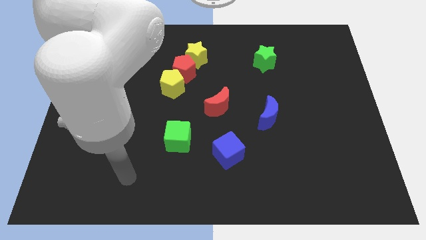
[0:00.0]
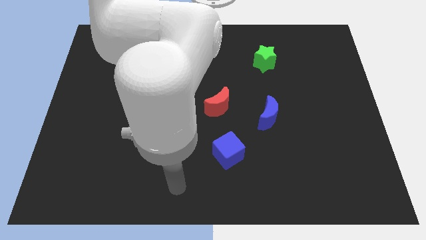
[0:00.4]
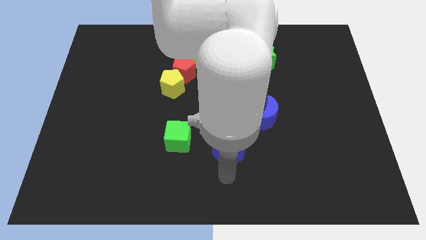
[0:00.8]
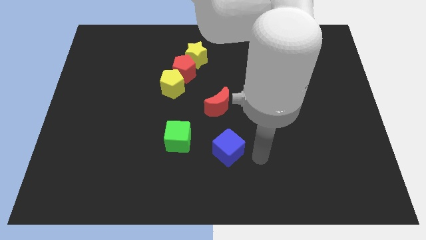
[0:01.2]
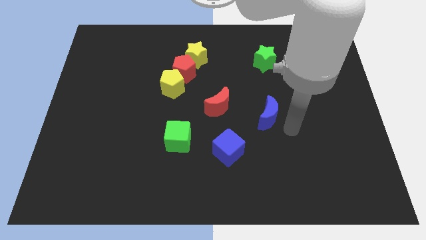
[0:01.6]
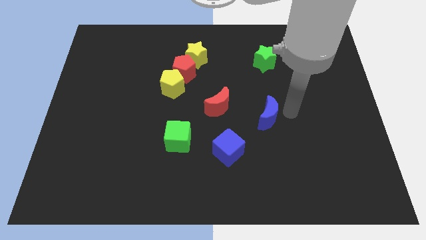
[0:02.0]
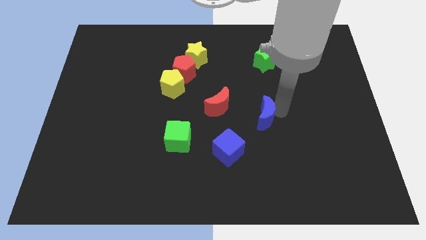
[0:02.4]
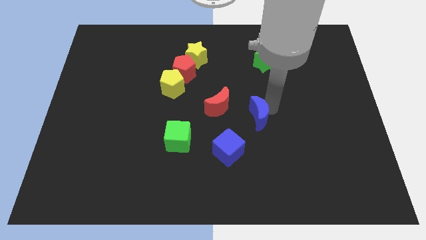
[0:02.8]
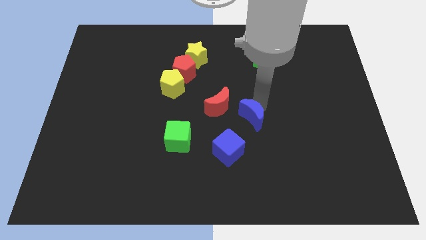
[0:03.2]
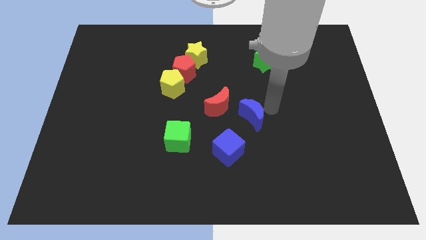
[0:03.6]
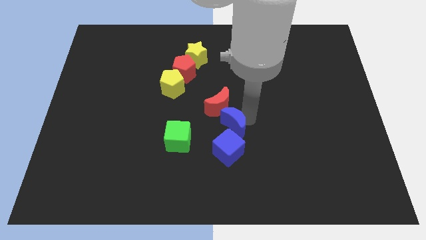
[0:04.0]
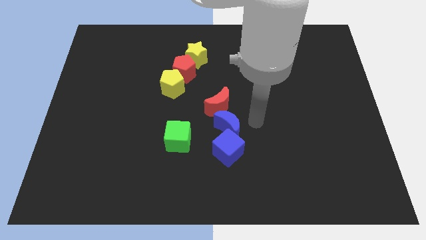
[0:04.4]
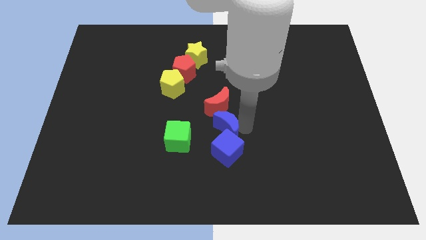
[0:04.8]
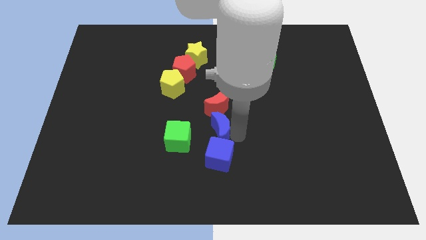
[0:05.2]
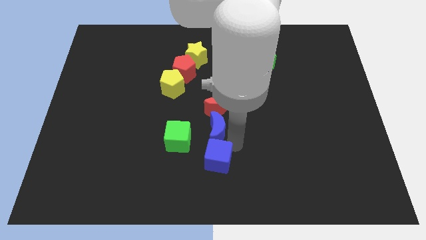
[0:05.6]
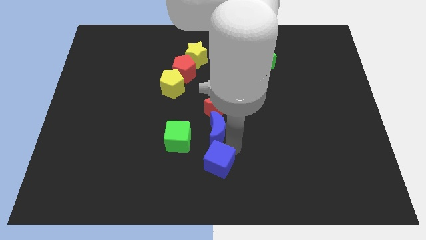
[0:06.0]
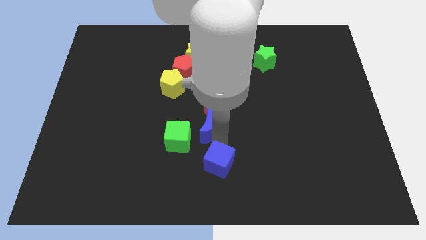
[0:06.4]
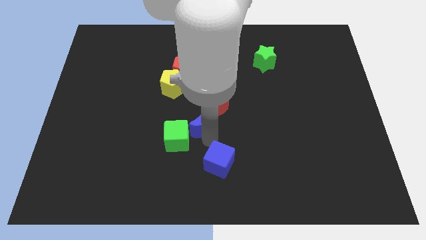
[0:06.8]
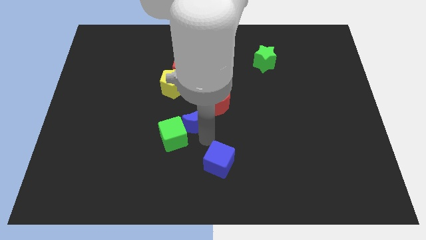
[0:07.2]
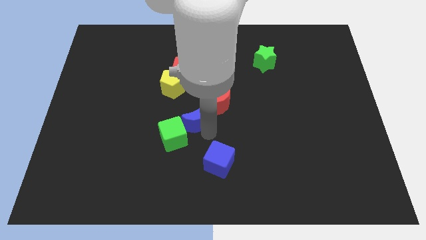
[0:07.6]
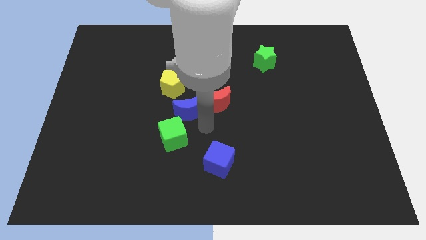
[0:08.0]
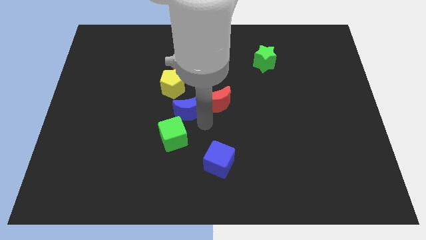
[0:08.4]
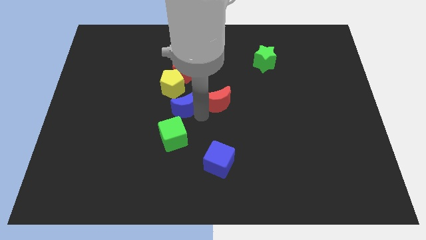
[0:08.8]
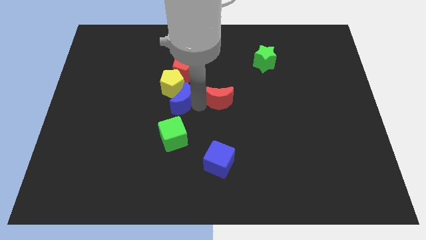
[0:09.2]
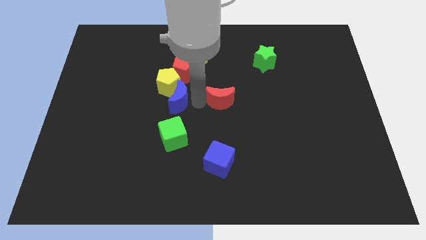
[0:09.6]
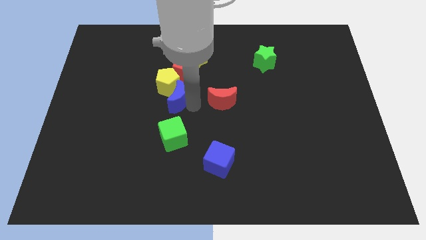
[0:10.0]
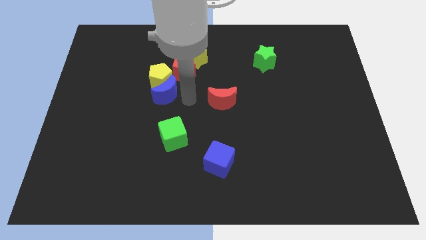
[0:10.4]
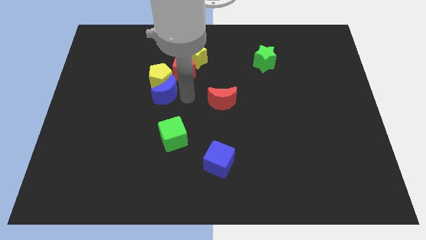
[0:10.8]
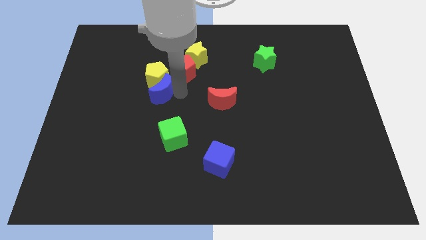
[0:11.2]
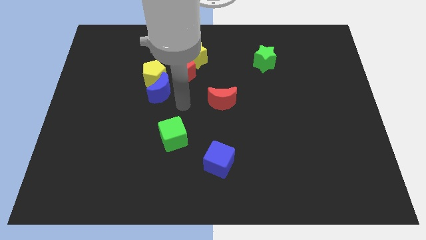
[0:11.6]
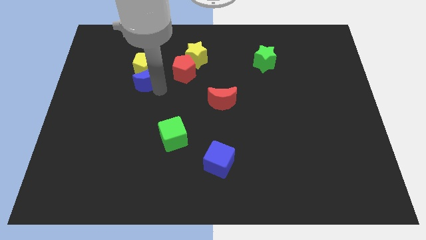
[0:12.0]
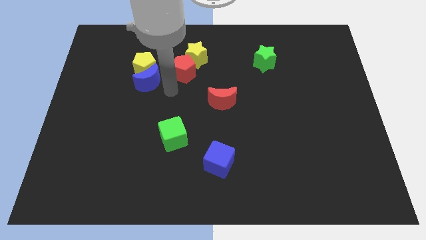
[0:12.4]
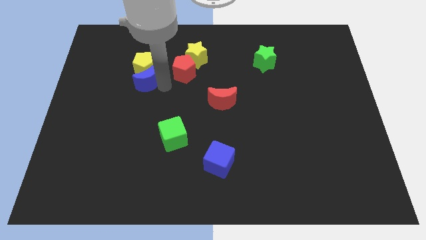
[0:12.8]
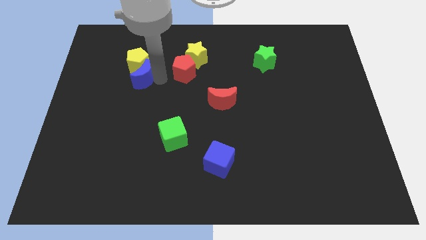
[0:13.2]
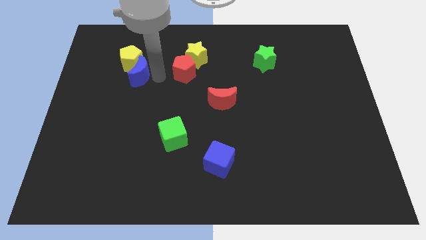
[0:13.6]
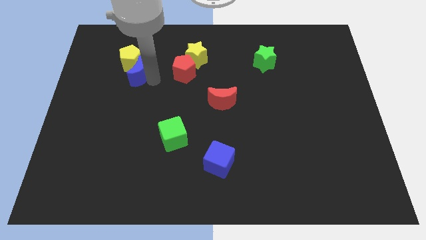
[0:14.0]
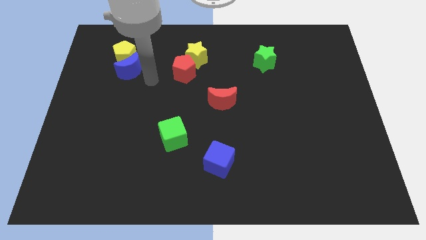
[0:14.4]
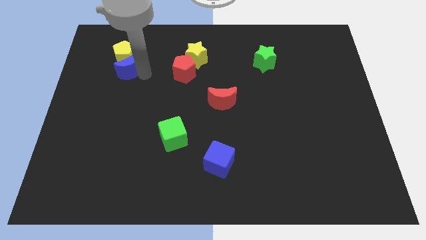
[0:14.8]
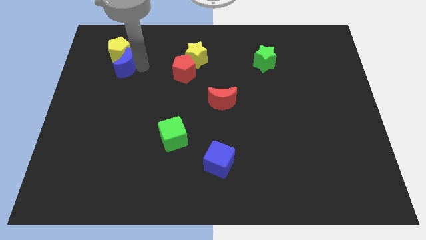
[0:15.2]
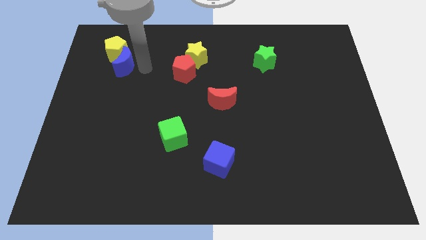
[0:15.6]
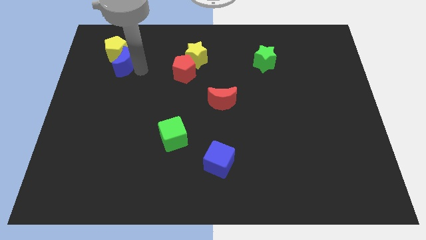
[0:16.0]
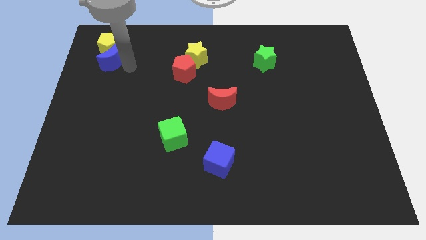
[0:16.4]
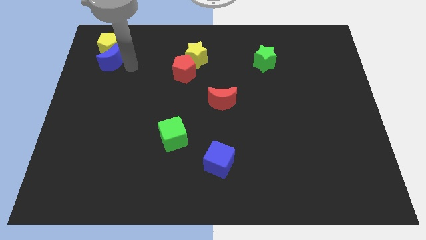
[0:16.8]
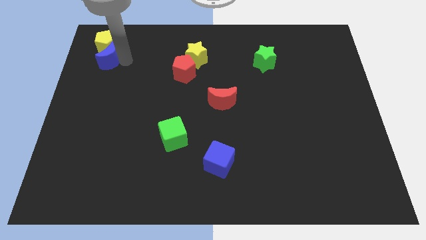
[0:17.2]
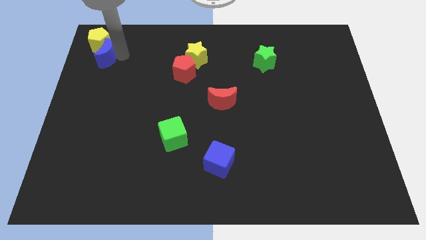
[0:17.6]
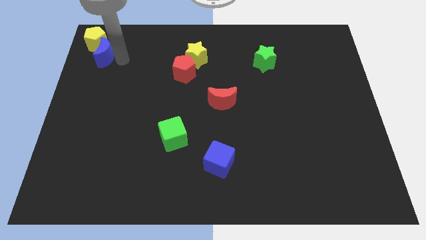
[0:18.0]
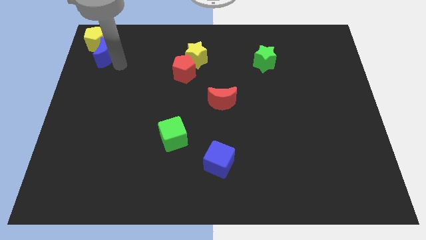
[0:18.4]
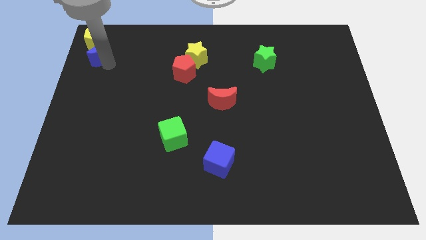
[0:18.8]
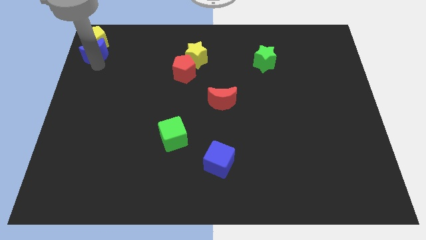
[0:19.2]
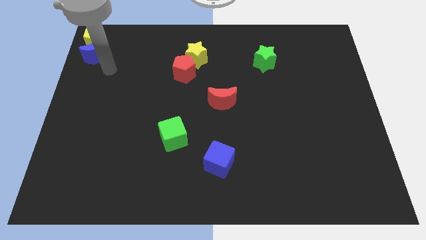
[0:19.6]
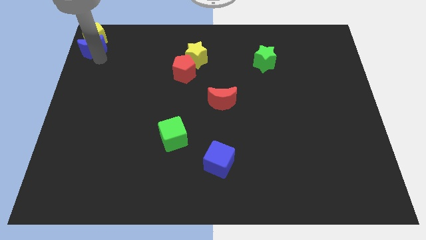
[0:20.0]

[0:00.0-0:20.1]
push the blue moon to the top left

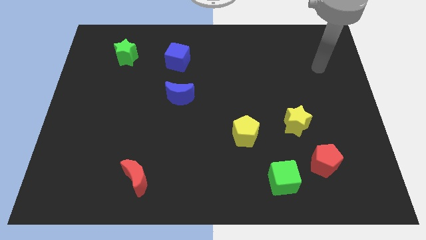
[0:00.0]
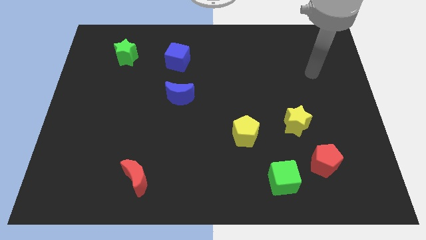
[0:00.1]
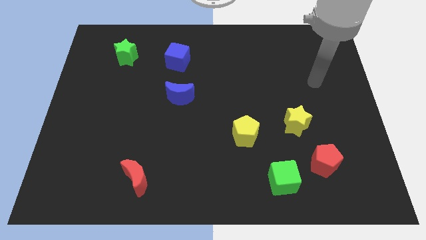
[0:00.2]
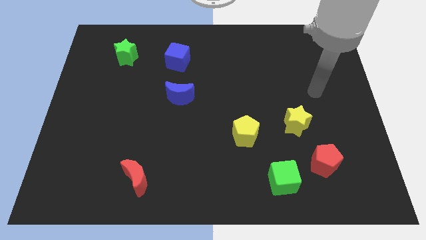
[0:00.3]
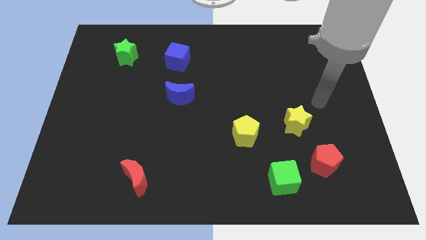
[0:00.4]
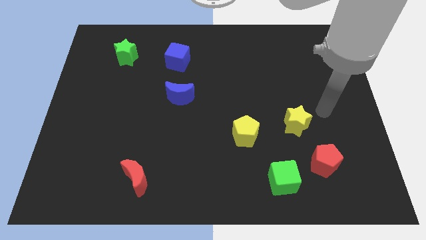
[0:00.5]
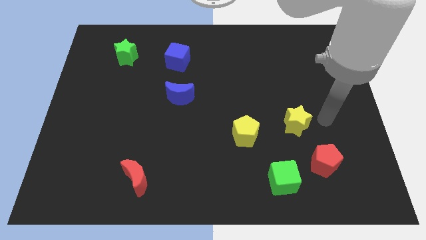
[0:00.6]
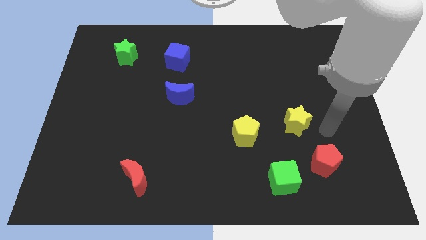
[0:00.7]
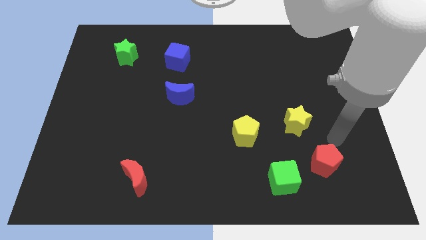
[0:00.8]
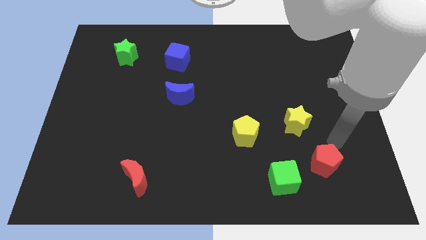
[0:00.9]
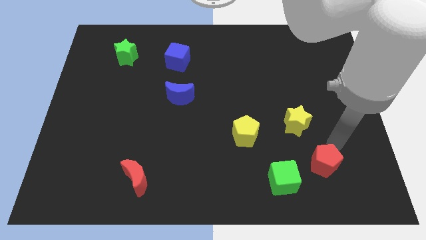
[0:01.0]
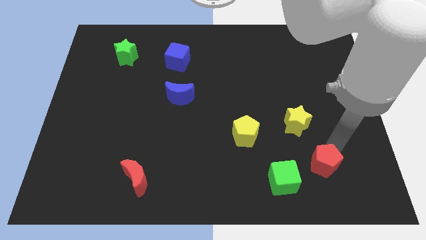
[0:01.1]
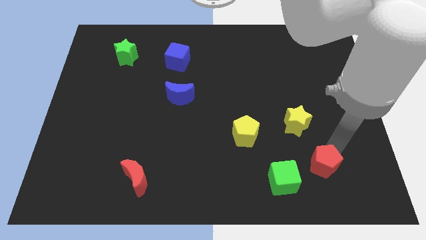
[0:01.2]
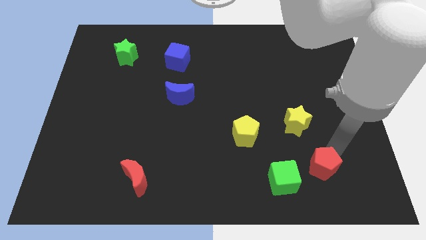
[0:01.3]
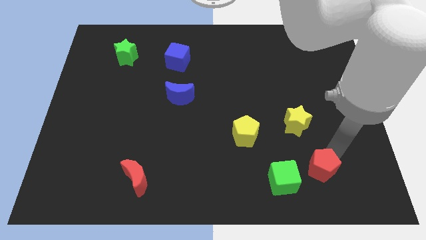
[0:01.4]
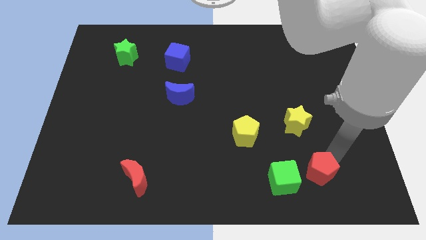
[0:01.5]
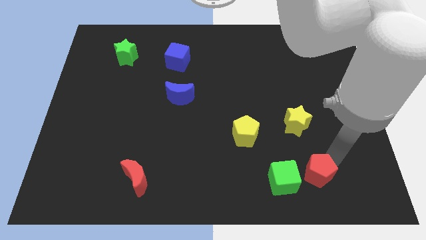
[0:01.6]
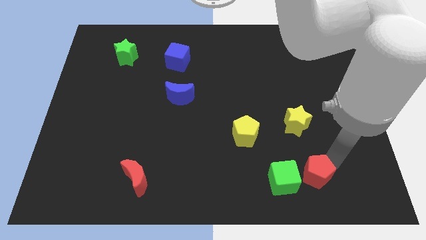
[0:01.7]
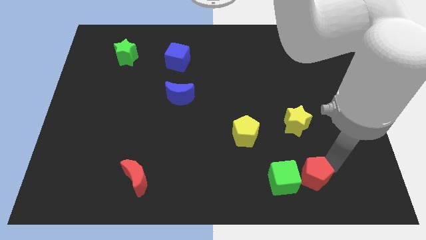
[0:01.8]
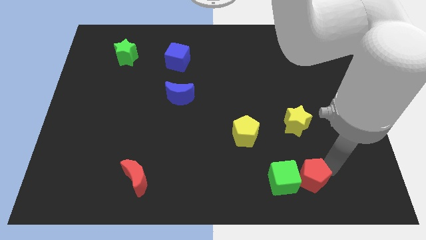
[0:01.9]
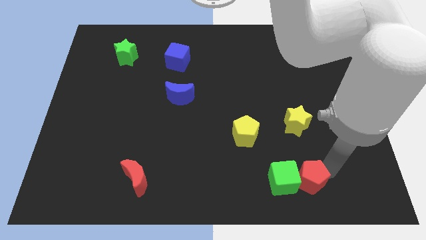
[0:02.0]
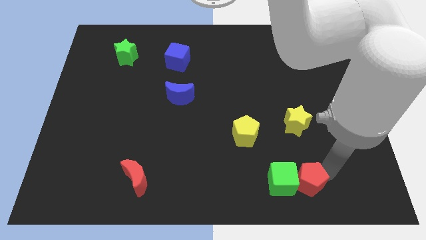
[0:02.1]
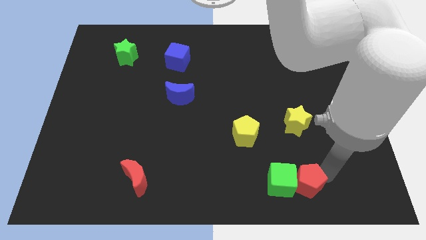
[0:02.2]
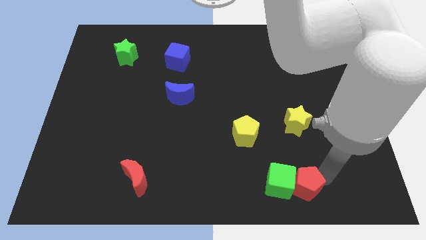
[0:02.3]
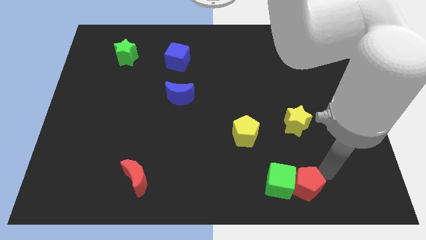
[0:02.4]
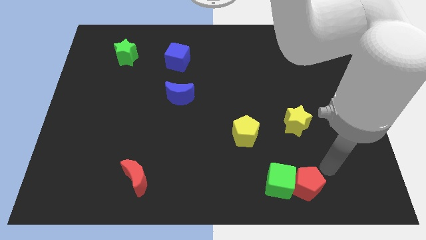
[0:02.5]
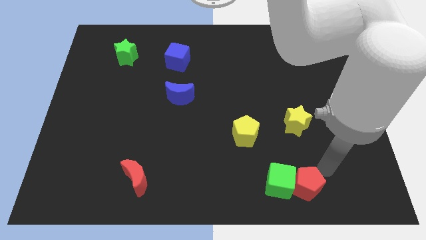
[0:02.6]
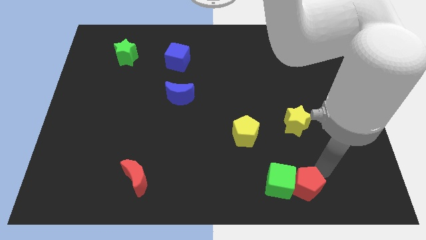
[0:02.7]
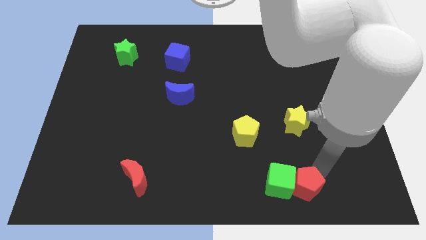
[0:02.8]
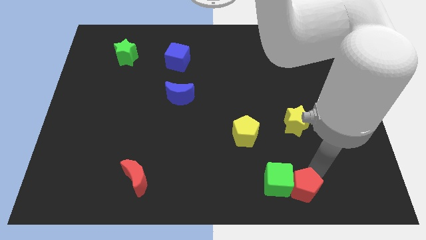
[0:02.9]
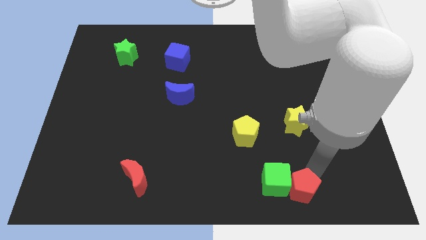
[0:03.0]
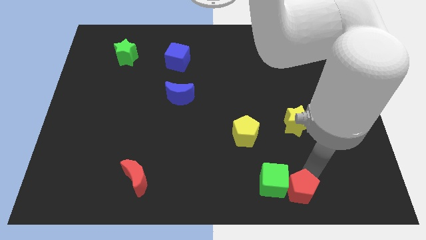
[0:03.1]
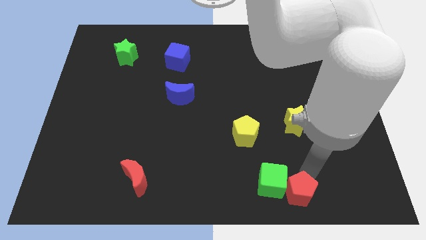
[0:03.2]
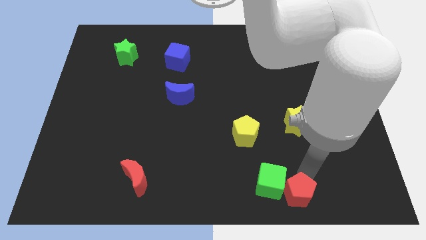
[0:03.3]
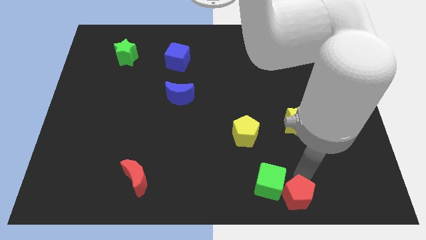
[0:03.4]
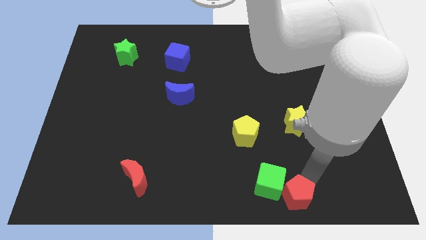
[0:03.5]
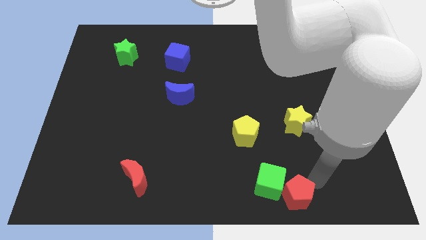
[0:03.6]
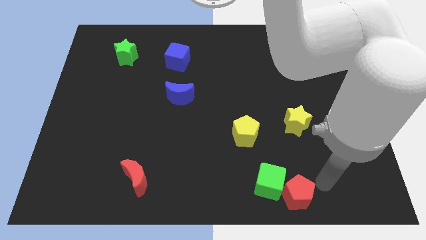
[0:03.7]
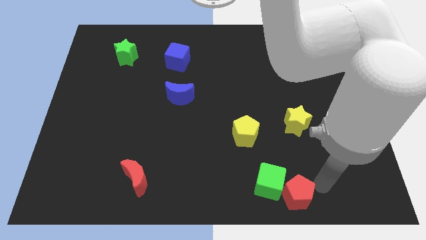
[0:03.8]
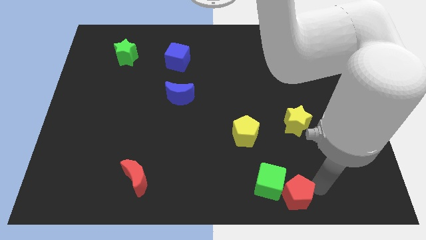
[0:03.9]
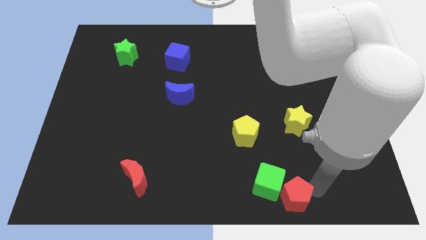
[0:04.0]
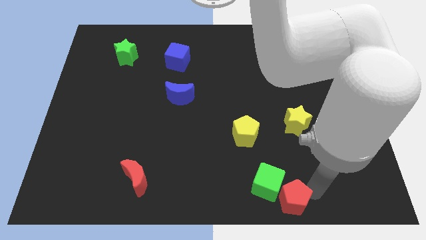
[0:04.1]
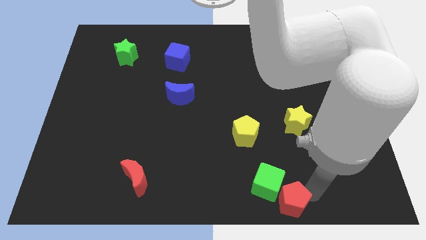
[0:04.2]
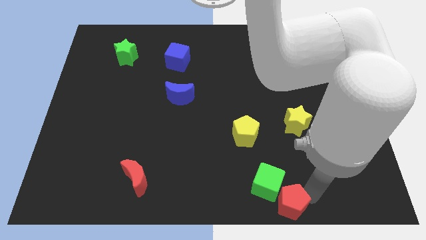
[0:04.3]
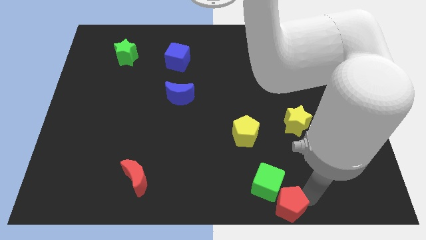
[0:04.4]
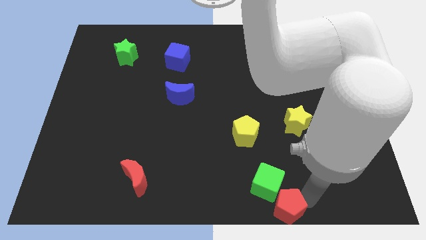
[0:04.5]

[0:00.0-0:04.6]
put the red pentagon to the bottom
